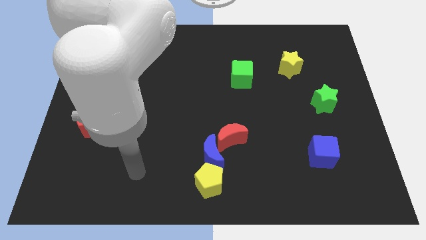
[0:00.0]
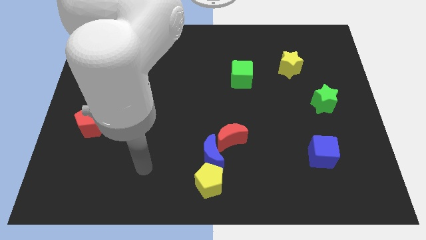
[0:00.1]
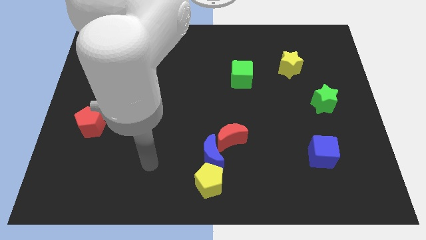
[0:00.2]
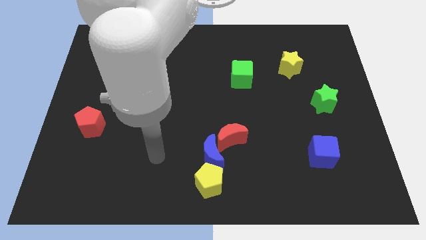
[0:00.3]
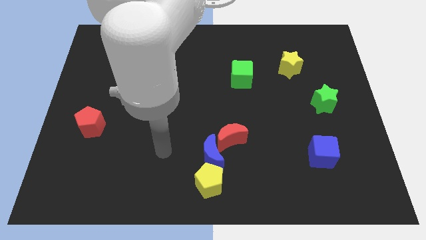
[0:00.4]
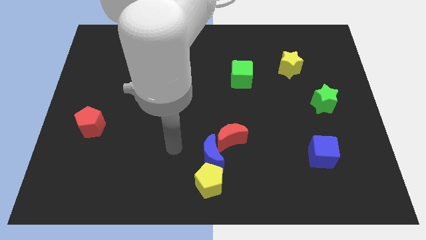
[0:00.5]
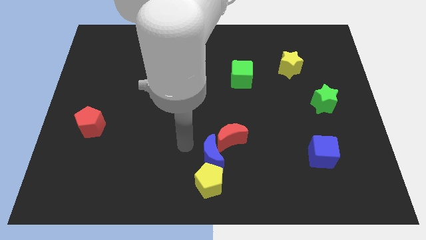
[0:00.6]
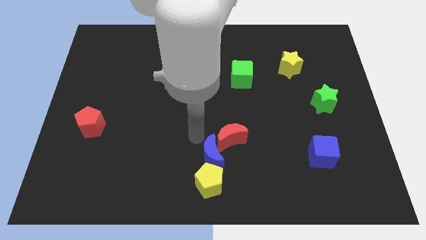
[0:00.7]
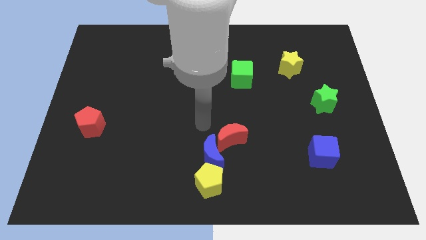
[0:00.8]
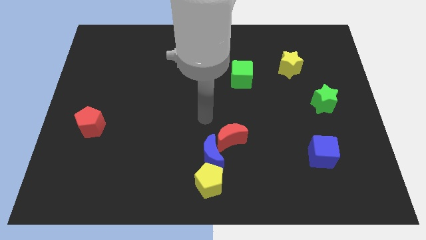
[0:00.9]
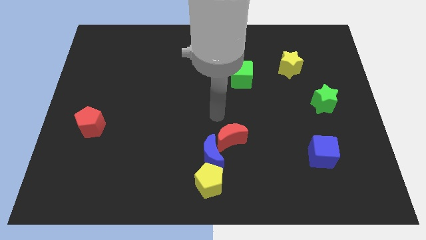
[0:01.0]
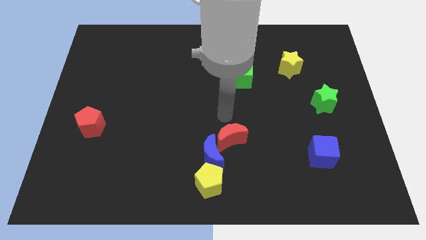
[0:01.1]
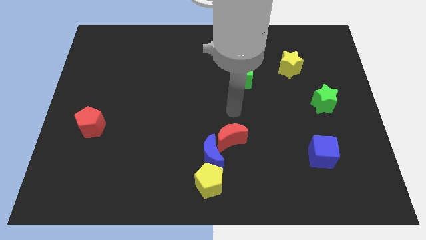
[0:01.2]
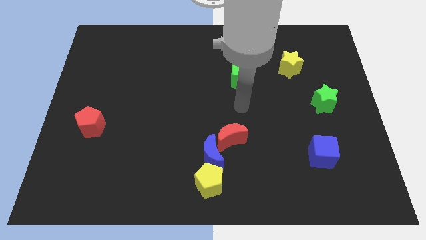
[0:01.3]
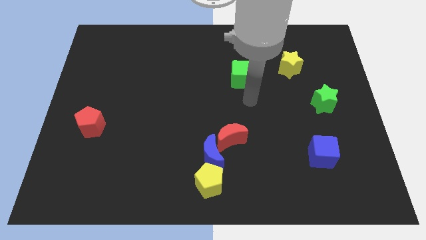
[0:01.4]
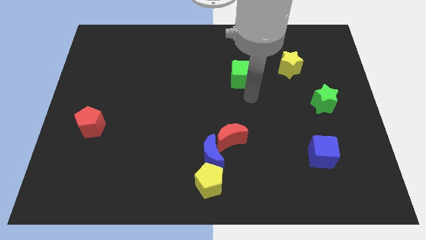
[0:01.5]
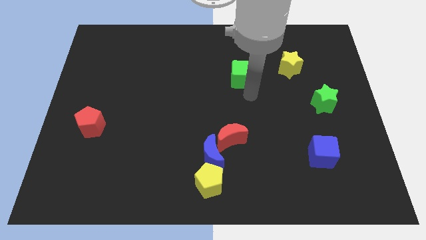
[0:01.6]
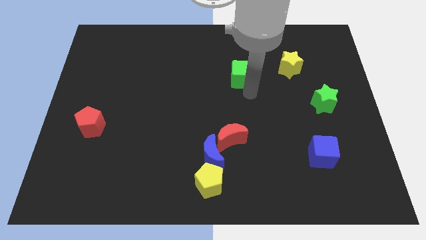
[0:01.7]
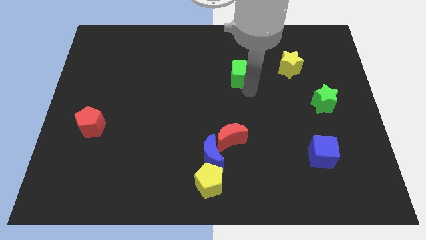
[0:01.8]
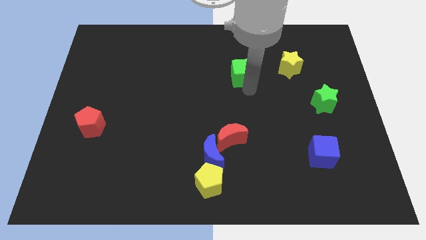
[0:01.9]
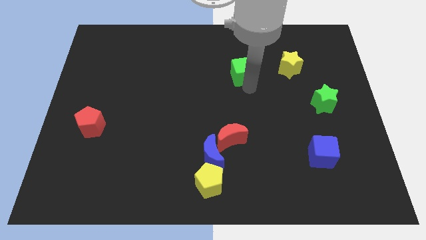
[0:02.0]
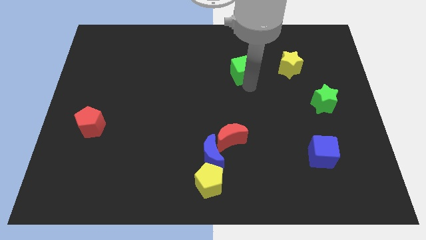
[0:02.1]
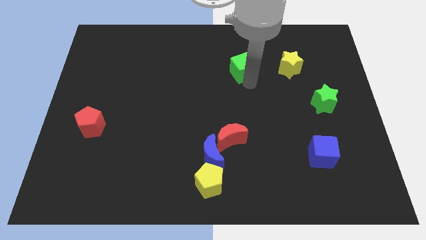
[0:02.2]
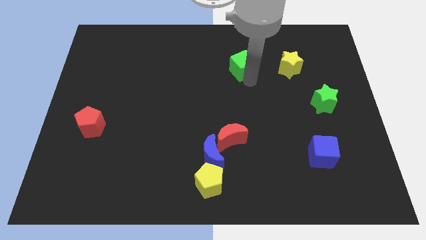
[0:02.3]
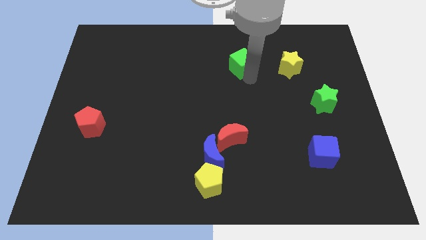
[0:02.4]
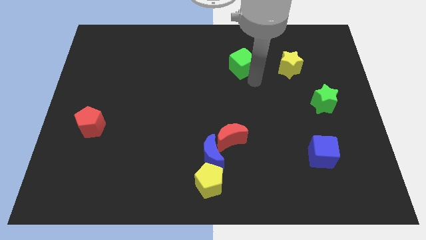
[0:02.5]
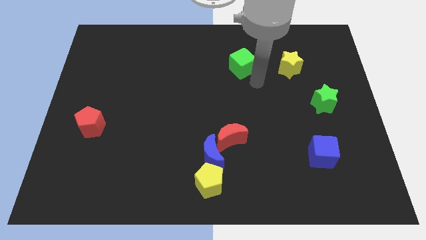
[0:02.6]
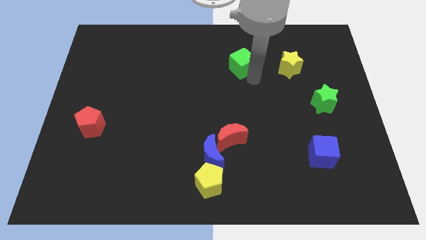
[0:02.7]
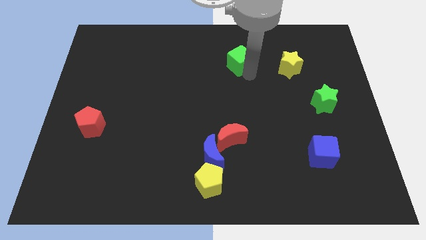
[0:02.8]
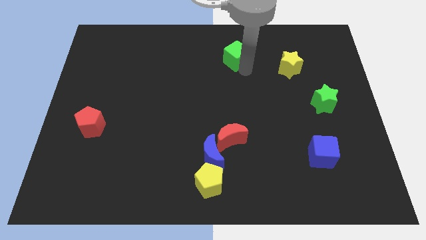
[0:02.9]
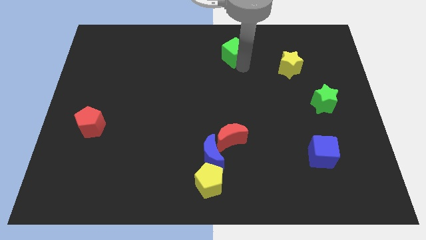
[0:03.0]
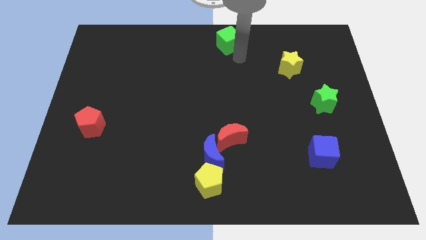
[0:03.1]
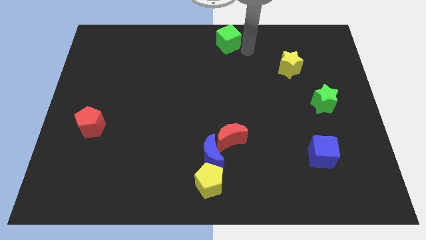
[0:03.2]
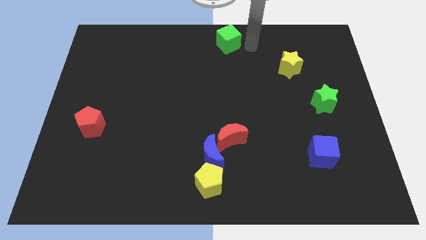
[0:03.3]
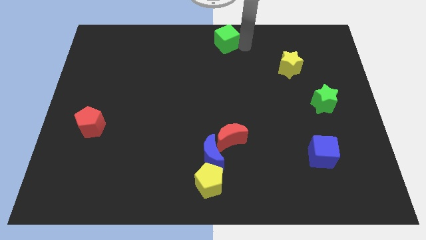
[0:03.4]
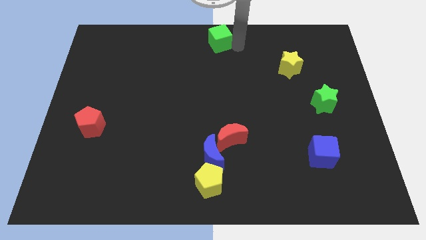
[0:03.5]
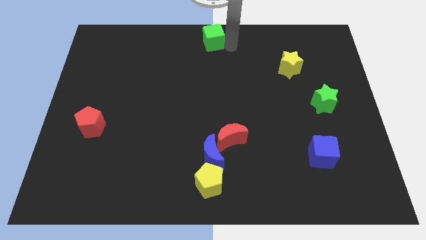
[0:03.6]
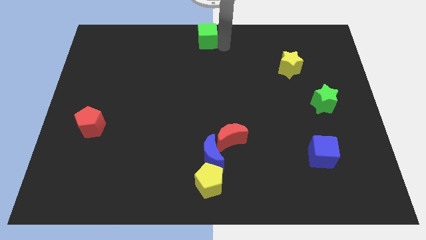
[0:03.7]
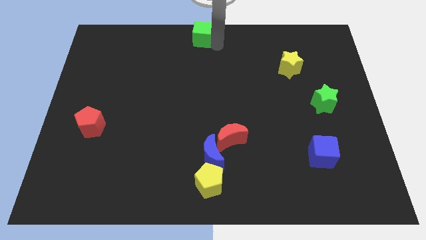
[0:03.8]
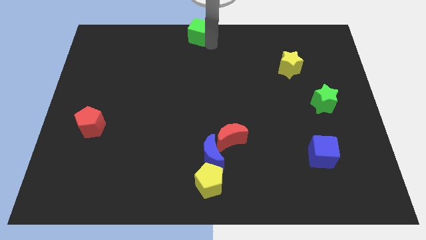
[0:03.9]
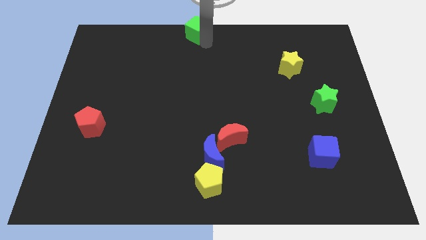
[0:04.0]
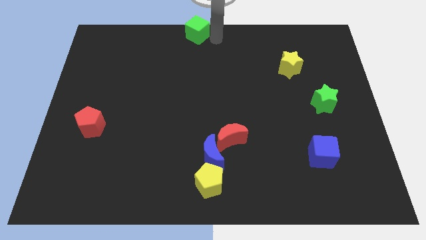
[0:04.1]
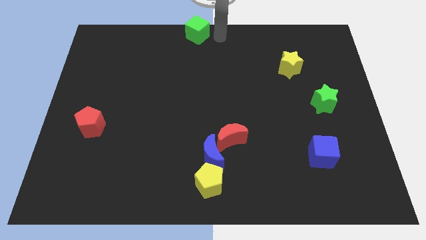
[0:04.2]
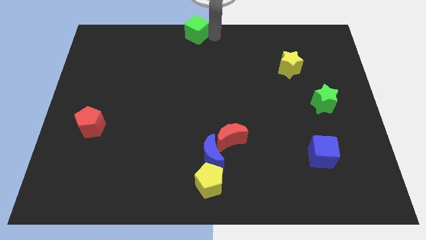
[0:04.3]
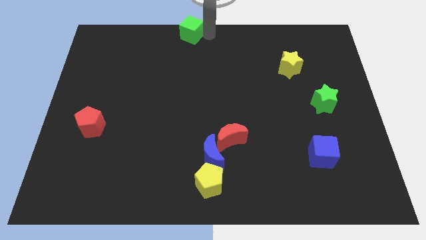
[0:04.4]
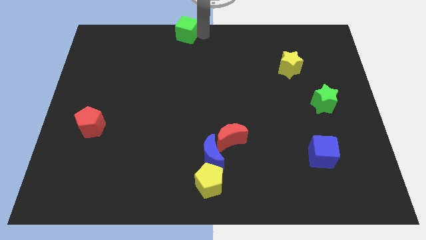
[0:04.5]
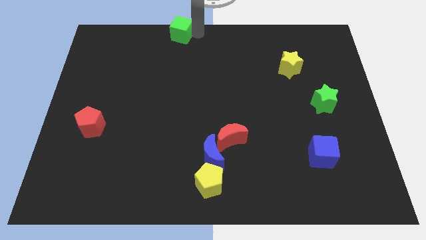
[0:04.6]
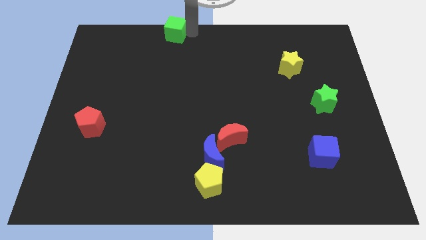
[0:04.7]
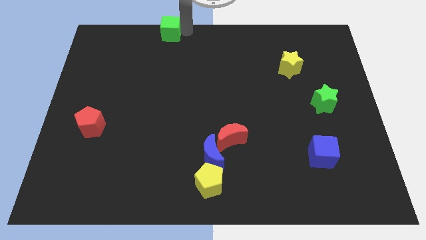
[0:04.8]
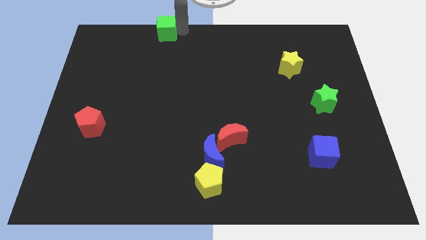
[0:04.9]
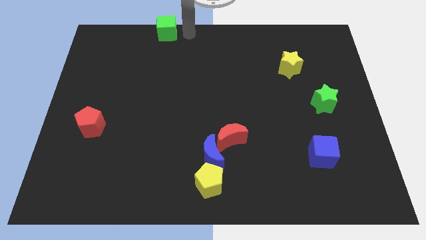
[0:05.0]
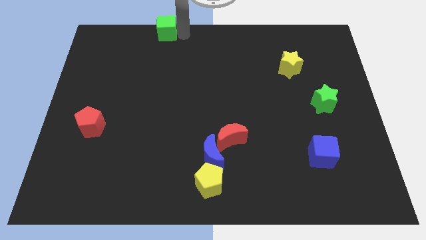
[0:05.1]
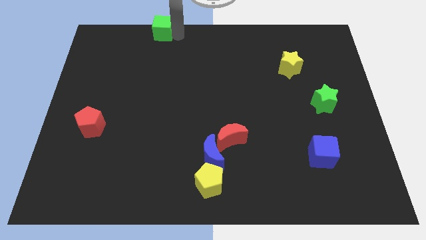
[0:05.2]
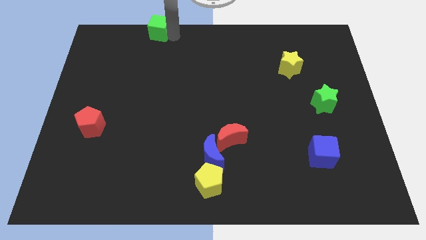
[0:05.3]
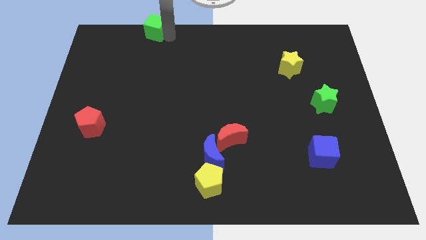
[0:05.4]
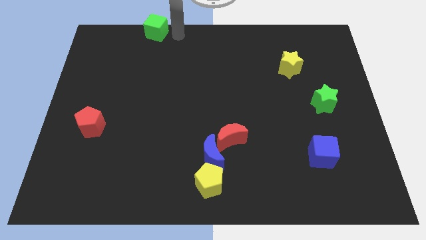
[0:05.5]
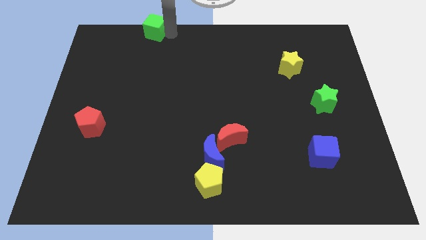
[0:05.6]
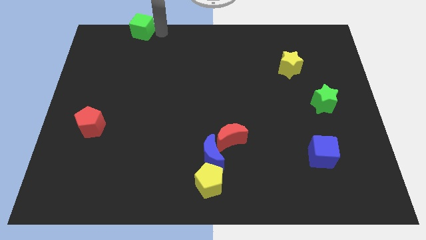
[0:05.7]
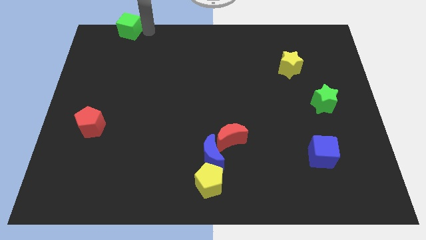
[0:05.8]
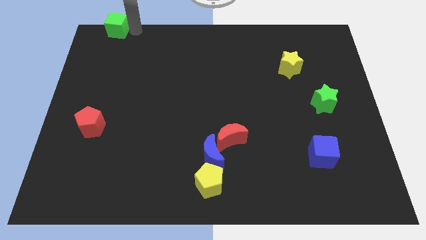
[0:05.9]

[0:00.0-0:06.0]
put the green cube to the upper left corner
